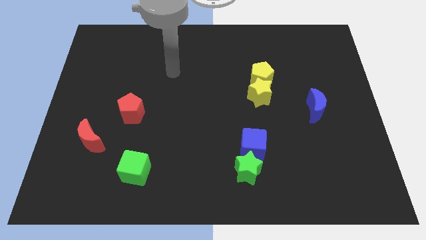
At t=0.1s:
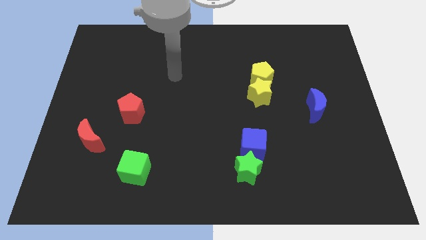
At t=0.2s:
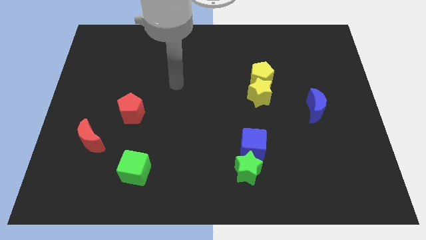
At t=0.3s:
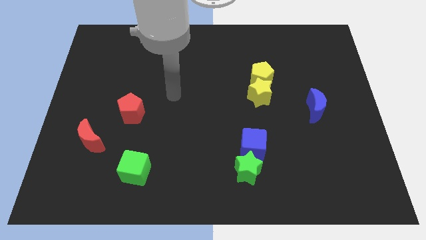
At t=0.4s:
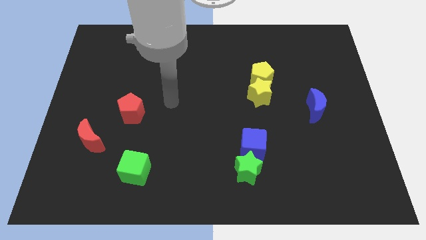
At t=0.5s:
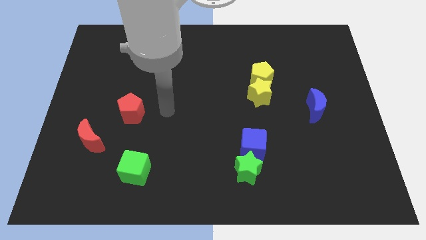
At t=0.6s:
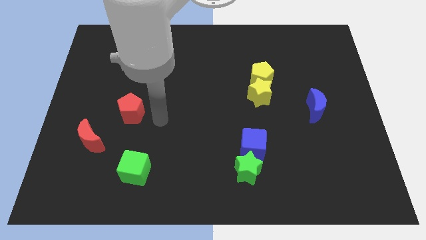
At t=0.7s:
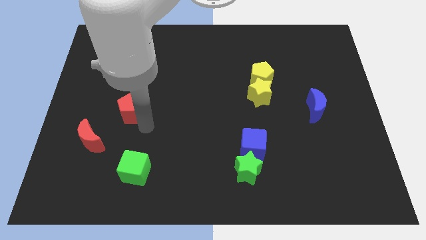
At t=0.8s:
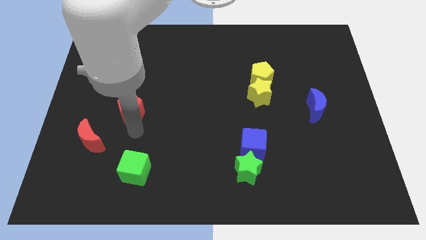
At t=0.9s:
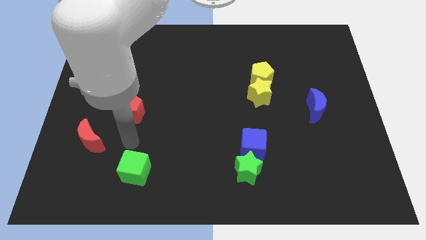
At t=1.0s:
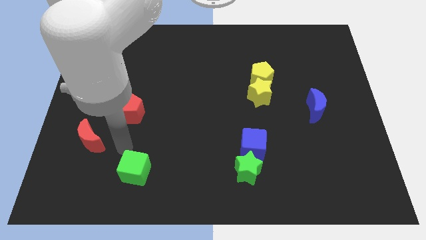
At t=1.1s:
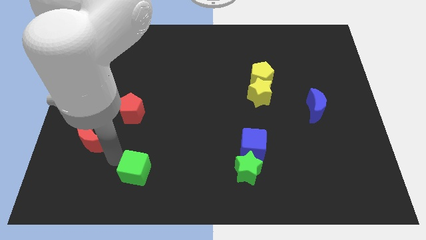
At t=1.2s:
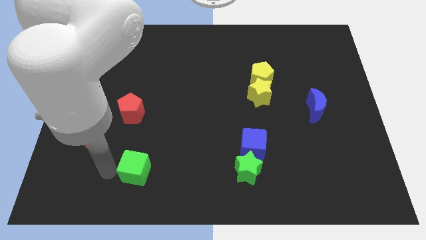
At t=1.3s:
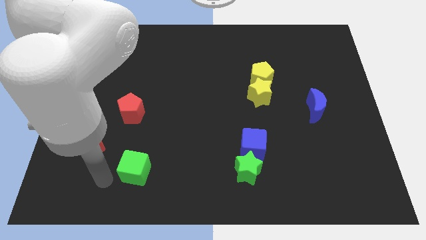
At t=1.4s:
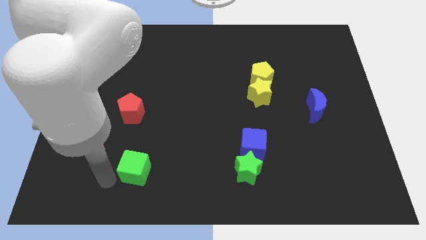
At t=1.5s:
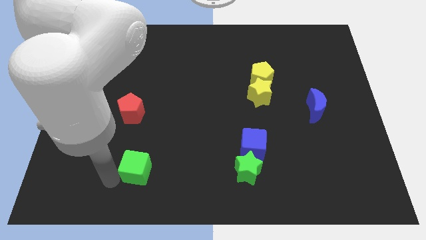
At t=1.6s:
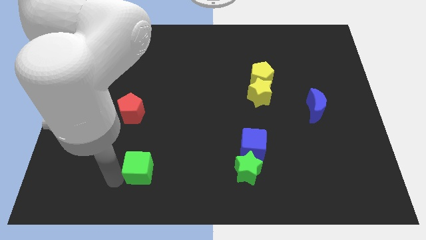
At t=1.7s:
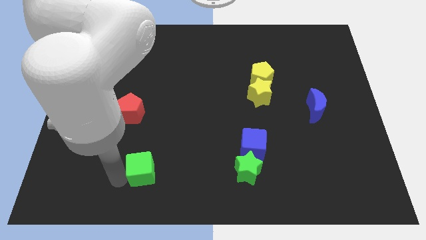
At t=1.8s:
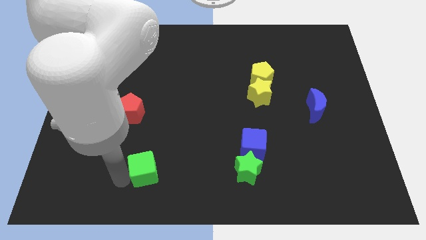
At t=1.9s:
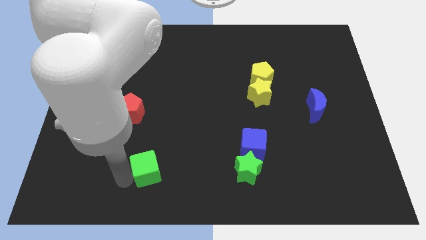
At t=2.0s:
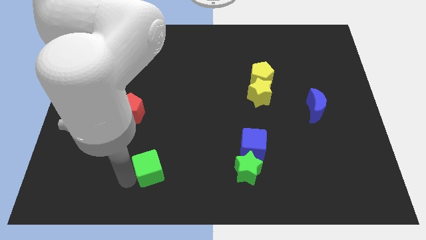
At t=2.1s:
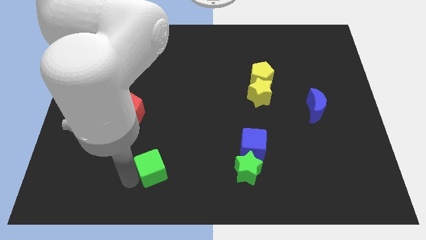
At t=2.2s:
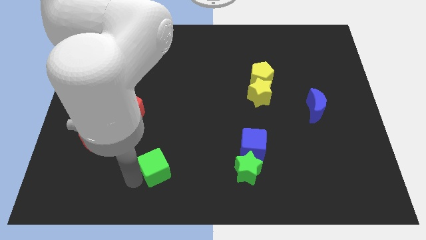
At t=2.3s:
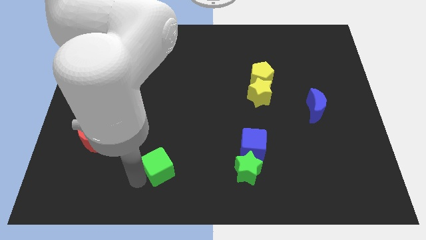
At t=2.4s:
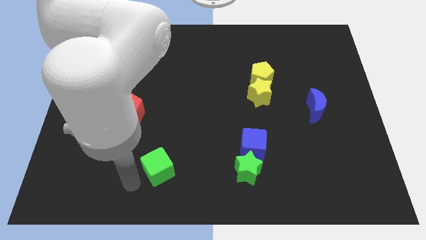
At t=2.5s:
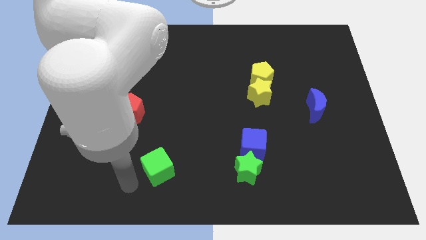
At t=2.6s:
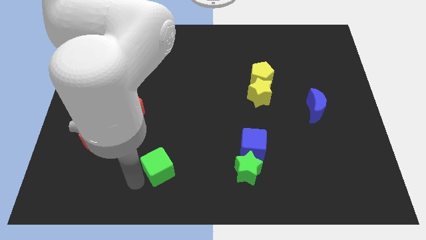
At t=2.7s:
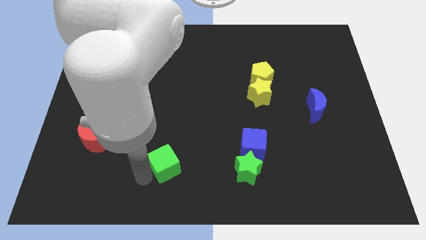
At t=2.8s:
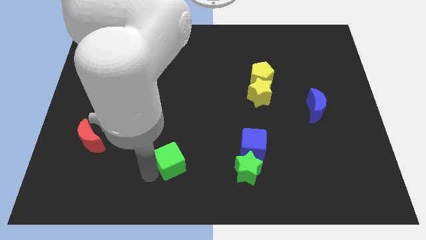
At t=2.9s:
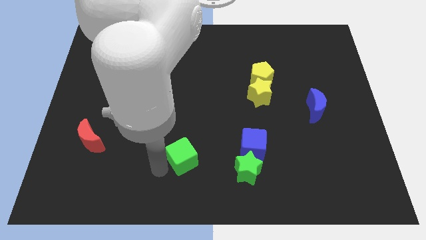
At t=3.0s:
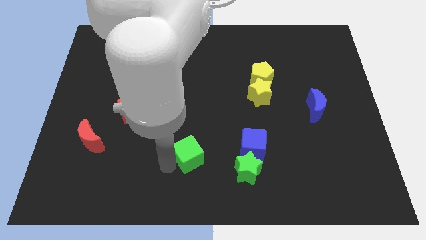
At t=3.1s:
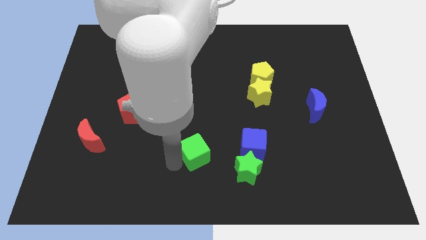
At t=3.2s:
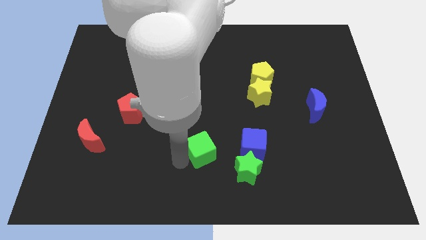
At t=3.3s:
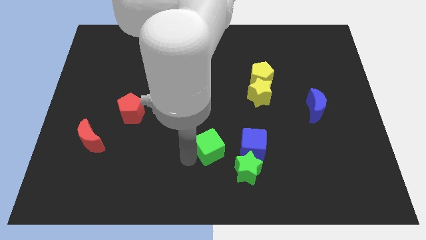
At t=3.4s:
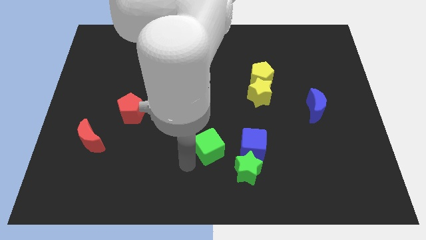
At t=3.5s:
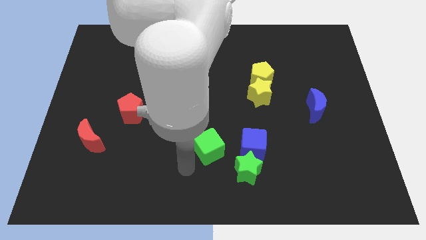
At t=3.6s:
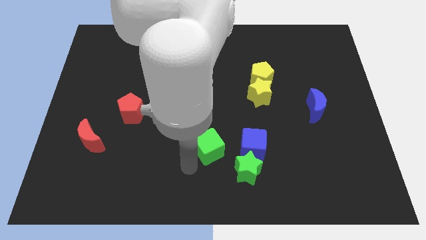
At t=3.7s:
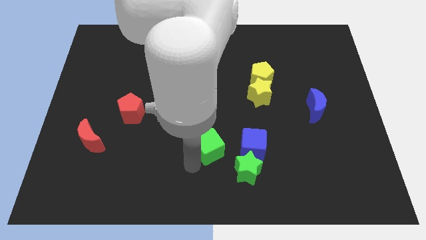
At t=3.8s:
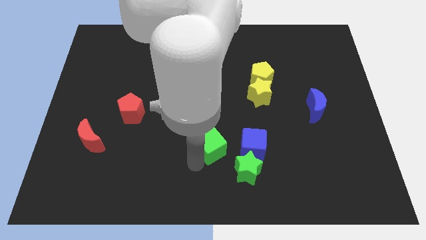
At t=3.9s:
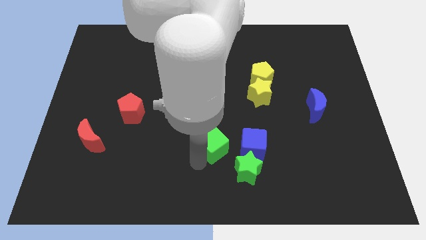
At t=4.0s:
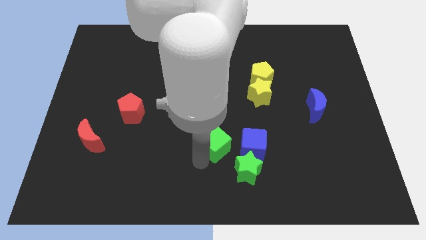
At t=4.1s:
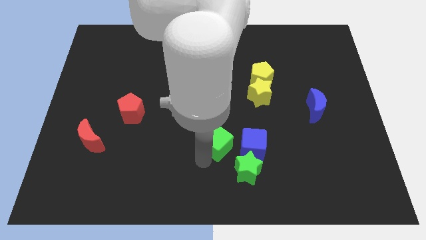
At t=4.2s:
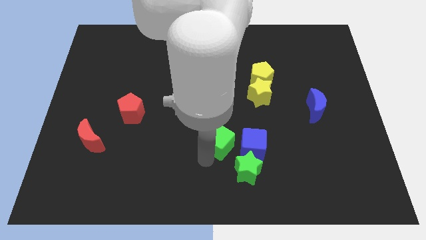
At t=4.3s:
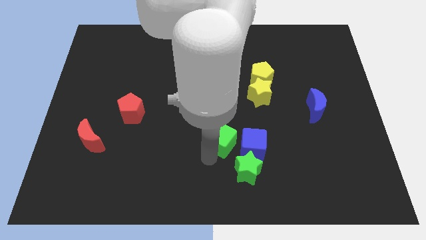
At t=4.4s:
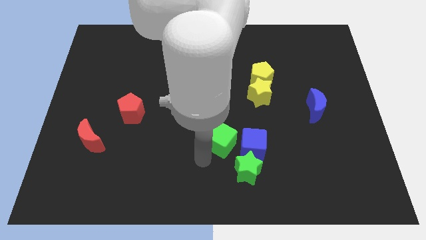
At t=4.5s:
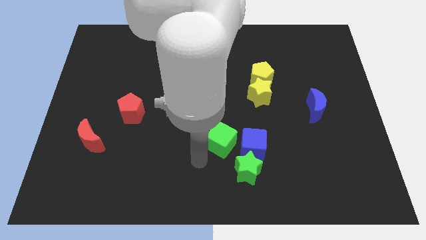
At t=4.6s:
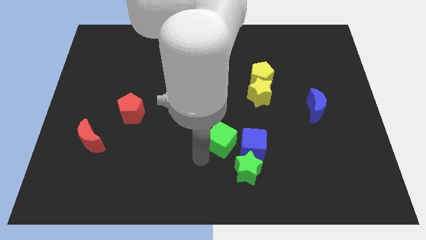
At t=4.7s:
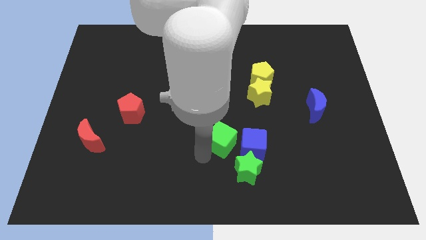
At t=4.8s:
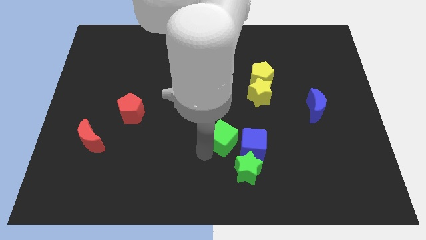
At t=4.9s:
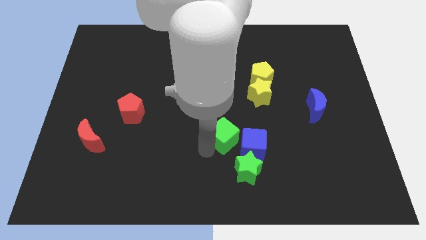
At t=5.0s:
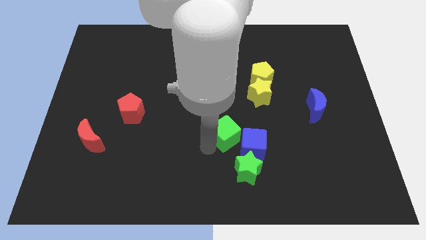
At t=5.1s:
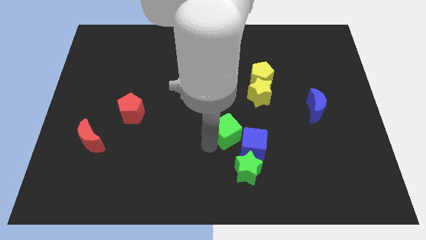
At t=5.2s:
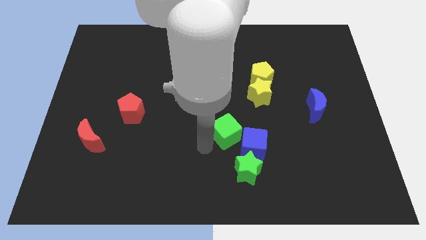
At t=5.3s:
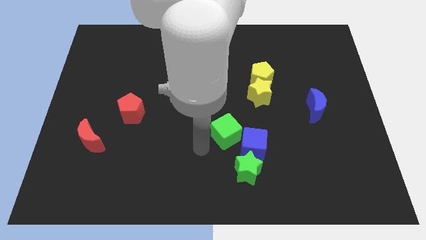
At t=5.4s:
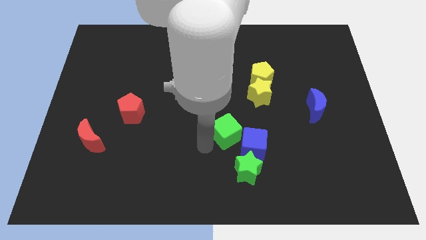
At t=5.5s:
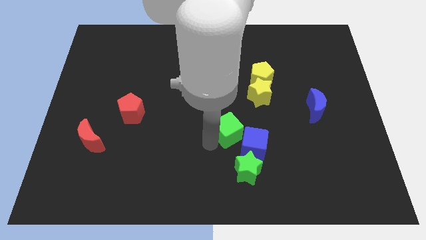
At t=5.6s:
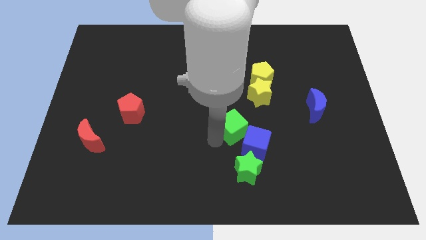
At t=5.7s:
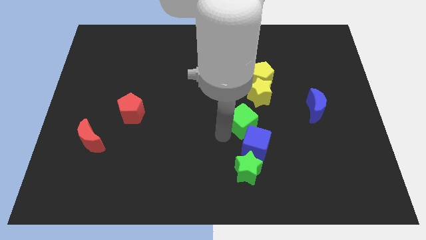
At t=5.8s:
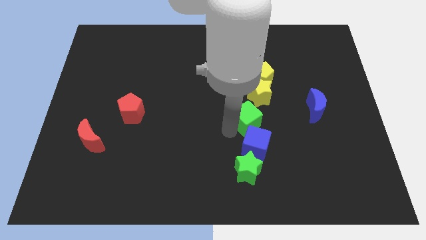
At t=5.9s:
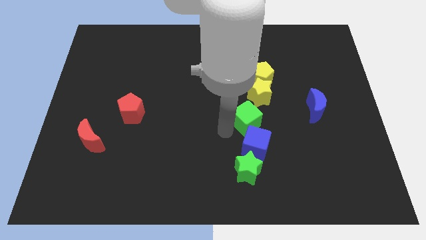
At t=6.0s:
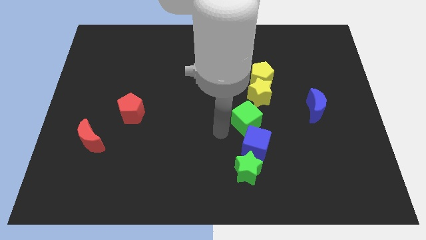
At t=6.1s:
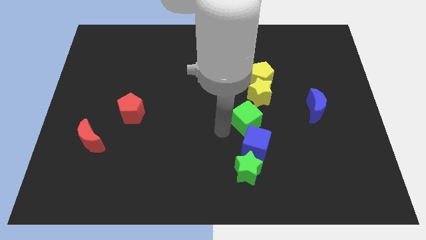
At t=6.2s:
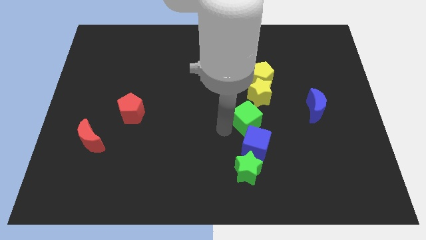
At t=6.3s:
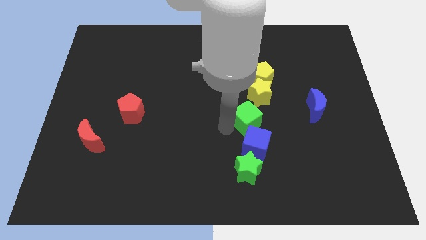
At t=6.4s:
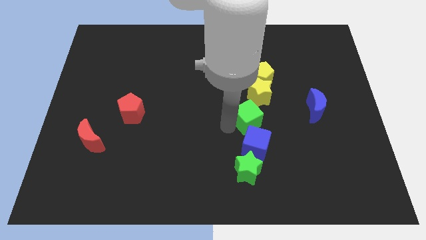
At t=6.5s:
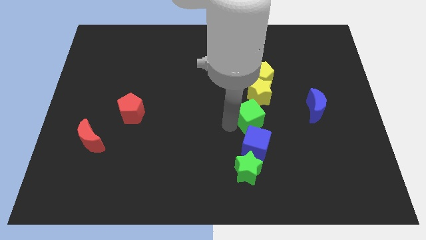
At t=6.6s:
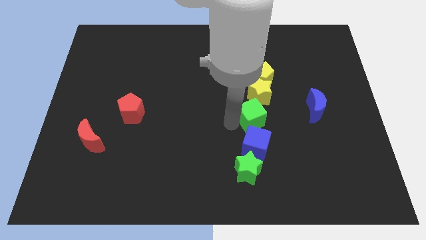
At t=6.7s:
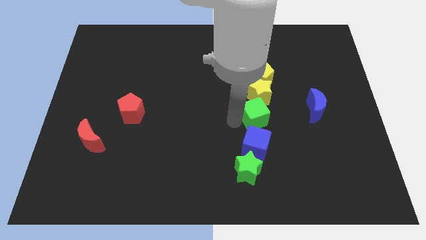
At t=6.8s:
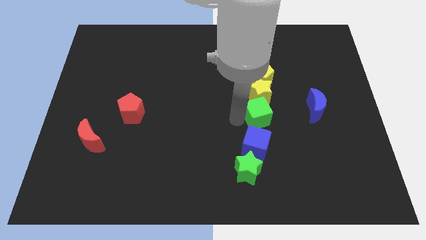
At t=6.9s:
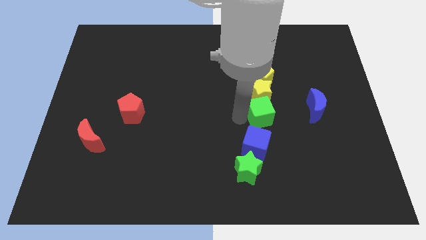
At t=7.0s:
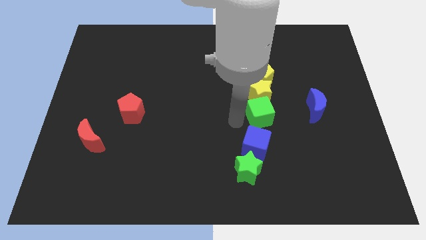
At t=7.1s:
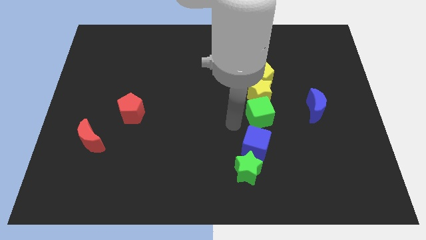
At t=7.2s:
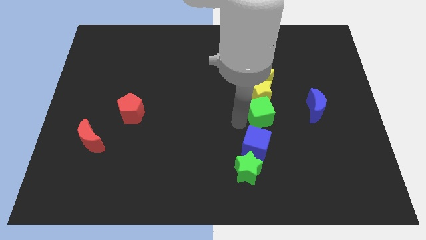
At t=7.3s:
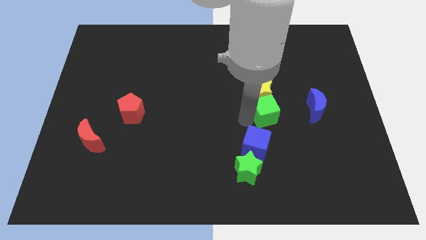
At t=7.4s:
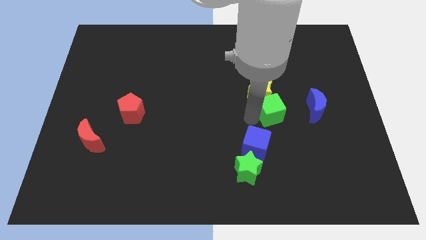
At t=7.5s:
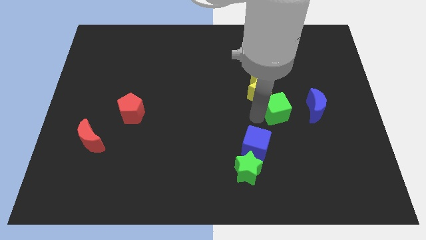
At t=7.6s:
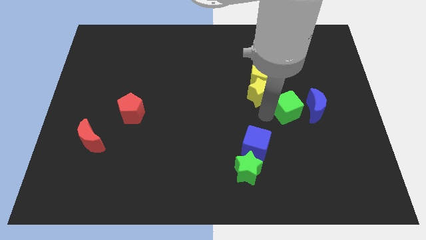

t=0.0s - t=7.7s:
move the green cube to the right side of the yellow star
